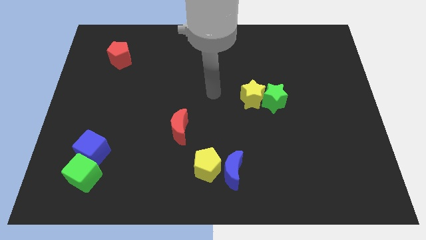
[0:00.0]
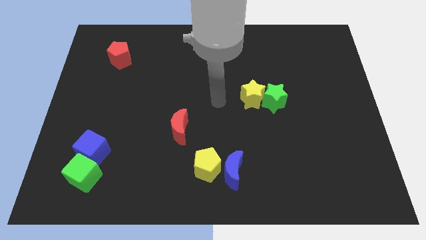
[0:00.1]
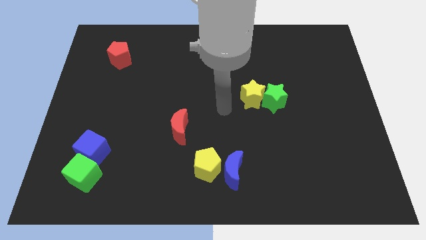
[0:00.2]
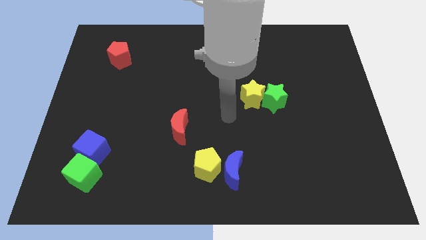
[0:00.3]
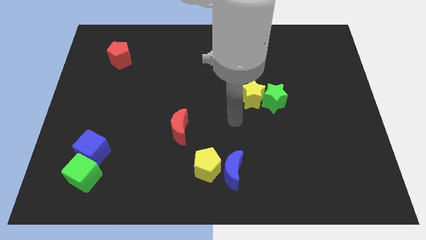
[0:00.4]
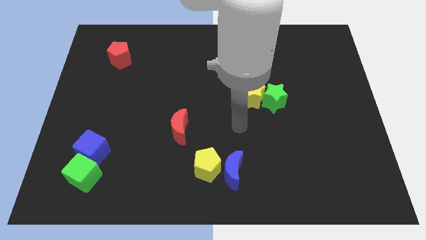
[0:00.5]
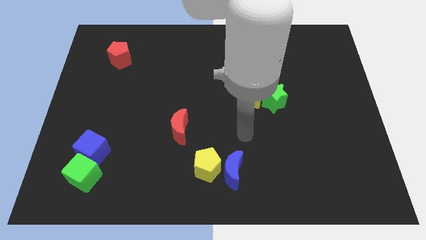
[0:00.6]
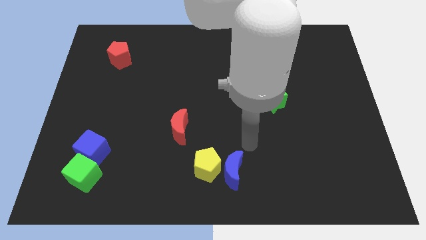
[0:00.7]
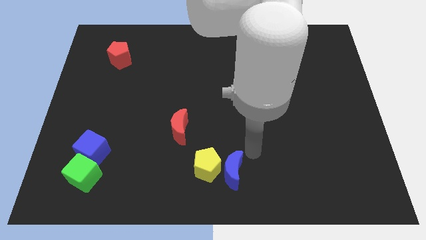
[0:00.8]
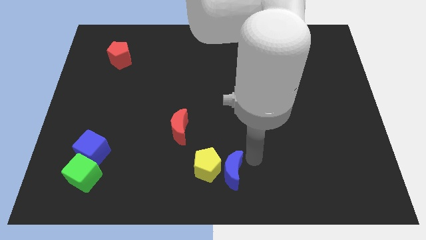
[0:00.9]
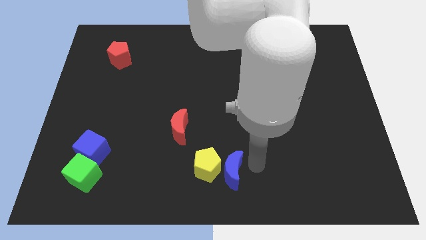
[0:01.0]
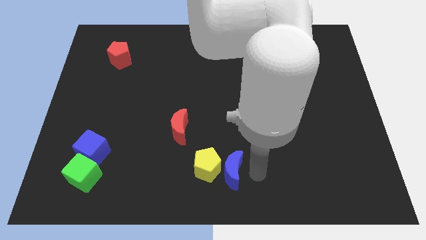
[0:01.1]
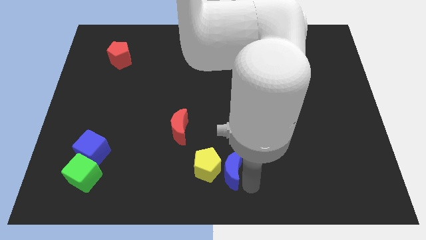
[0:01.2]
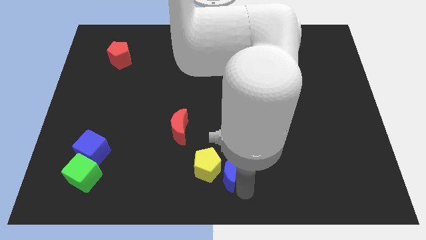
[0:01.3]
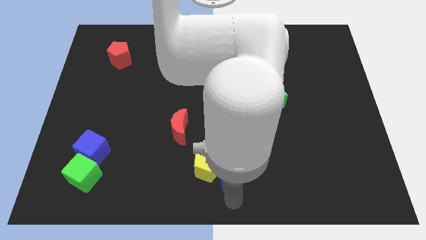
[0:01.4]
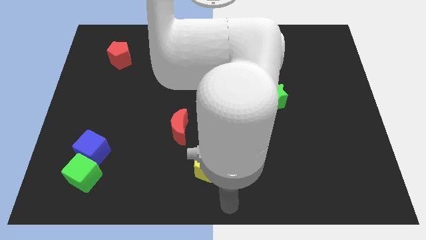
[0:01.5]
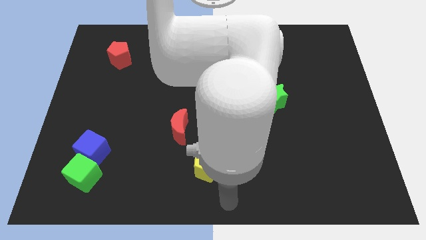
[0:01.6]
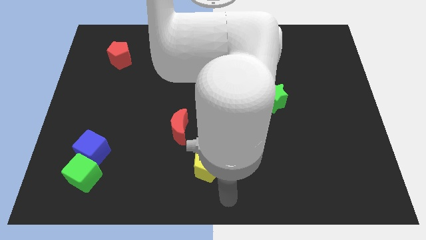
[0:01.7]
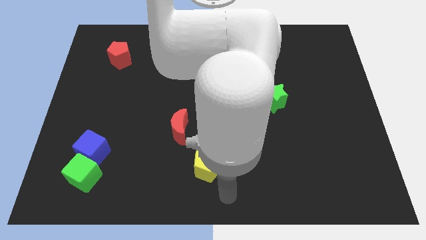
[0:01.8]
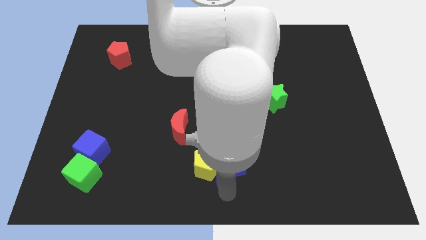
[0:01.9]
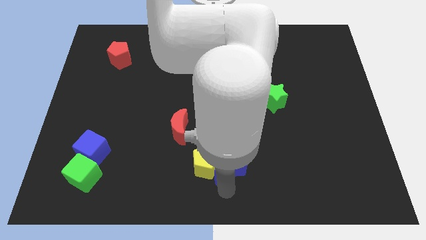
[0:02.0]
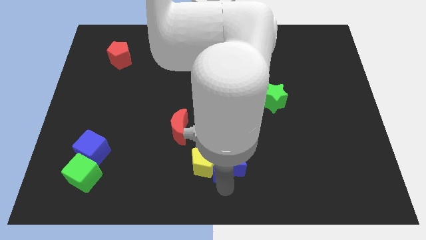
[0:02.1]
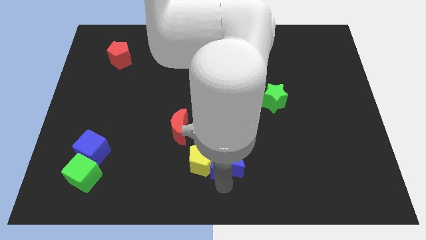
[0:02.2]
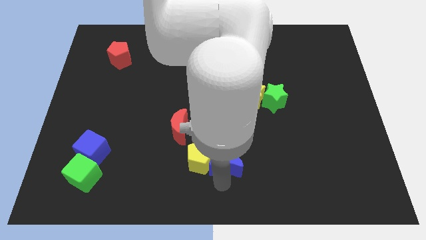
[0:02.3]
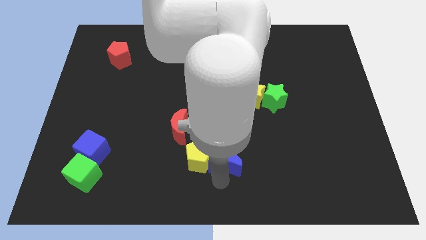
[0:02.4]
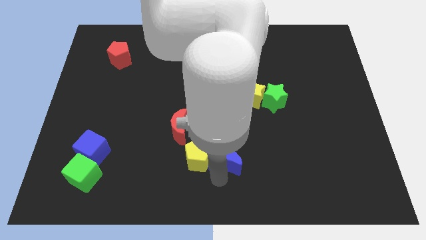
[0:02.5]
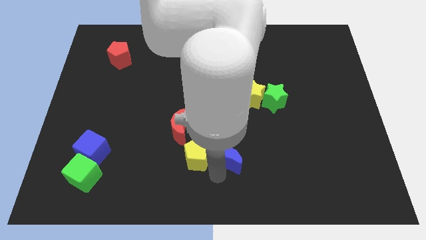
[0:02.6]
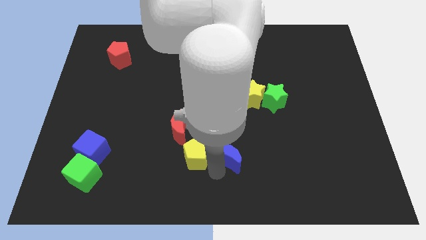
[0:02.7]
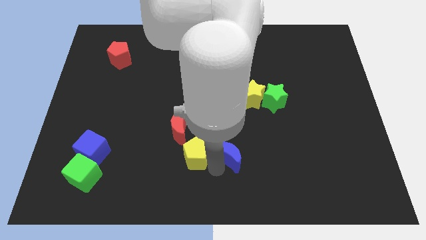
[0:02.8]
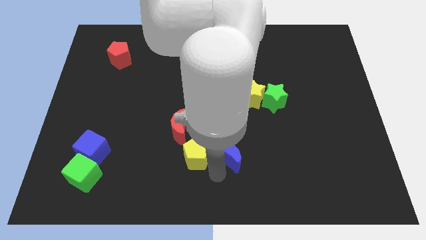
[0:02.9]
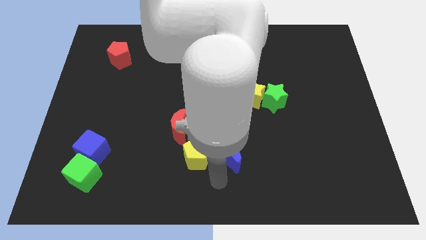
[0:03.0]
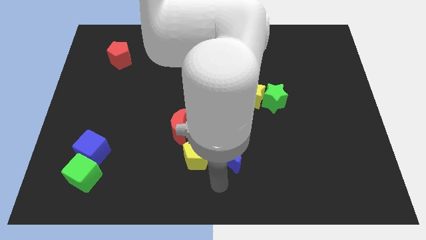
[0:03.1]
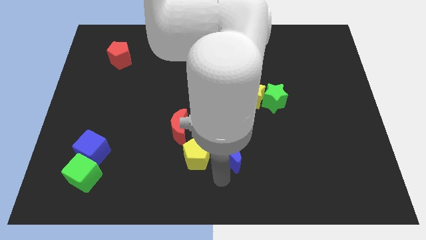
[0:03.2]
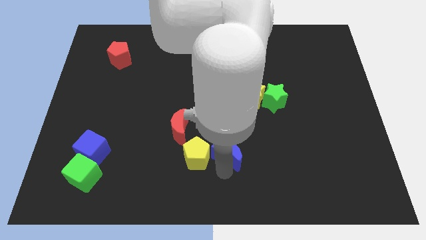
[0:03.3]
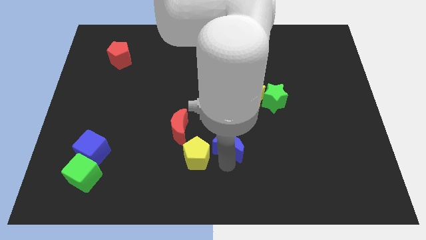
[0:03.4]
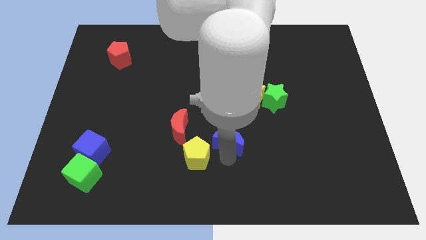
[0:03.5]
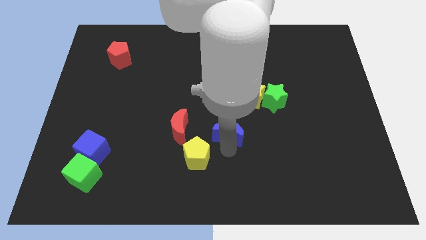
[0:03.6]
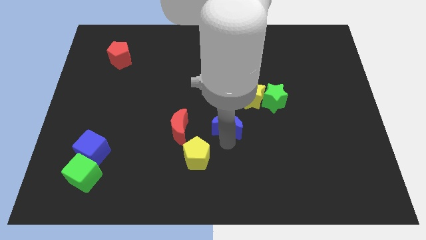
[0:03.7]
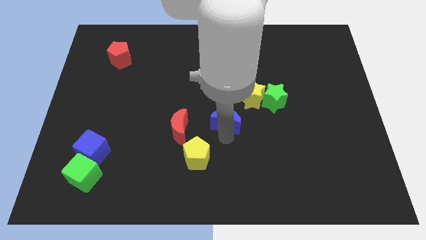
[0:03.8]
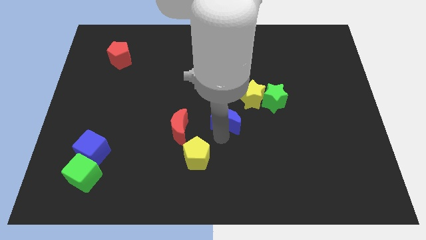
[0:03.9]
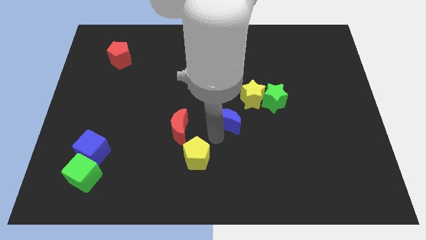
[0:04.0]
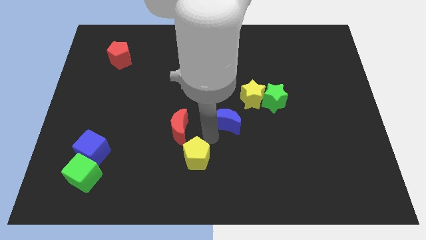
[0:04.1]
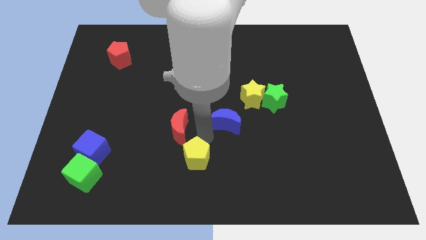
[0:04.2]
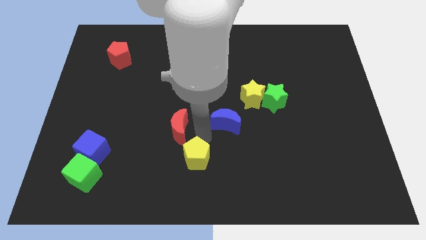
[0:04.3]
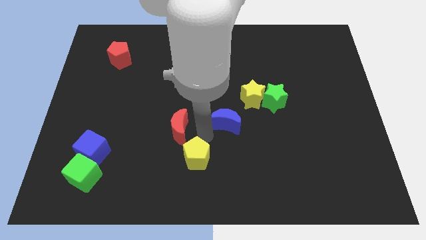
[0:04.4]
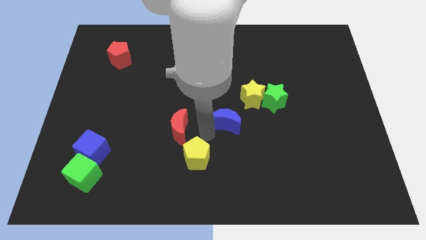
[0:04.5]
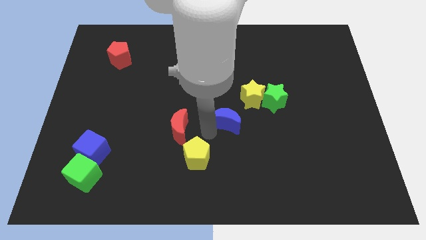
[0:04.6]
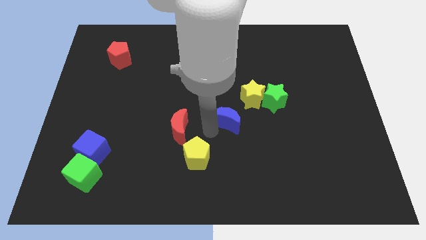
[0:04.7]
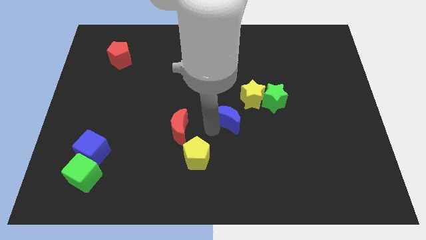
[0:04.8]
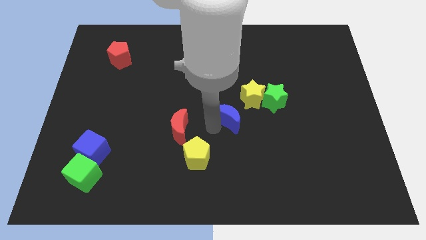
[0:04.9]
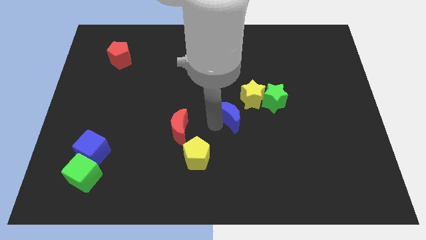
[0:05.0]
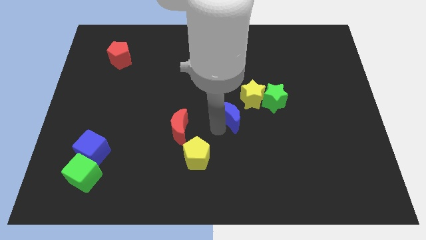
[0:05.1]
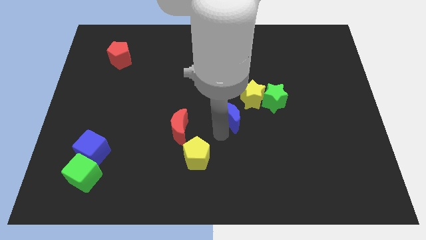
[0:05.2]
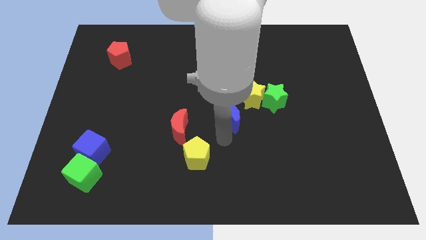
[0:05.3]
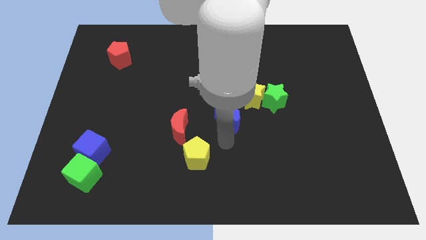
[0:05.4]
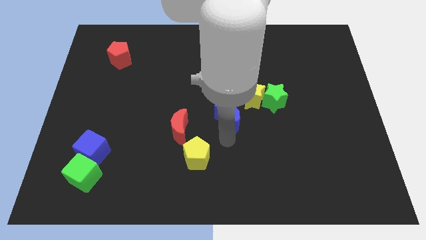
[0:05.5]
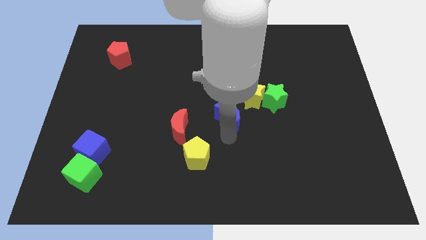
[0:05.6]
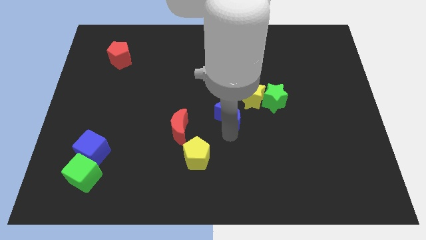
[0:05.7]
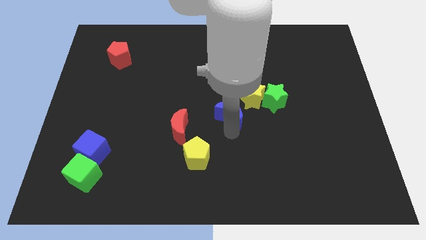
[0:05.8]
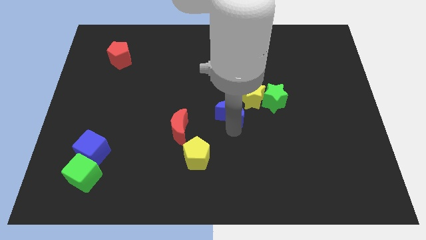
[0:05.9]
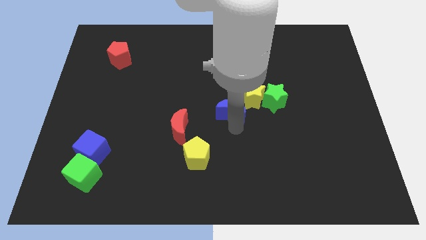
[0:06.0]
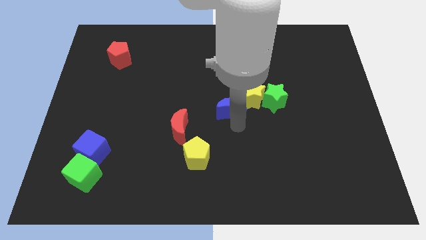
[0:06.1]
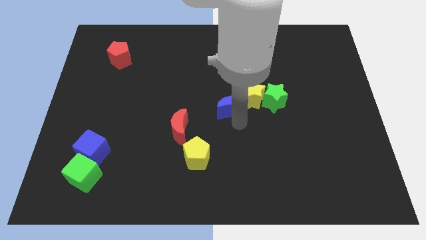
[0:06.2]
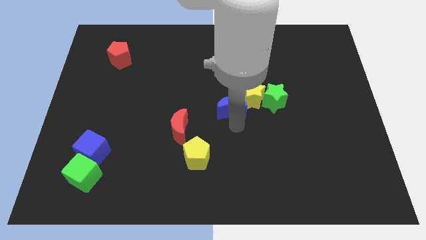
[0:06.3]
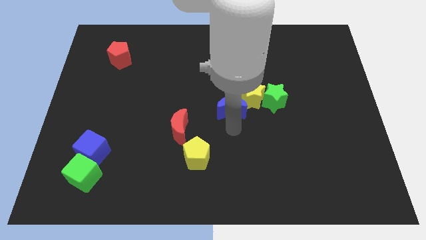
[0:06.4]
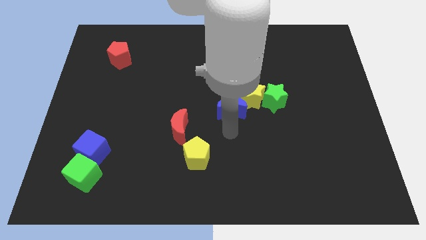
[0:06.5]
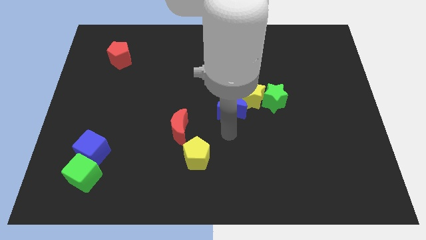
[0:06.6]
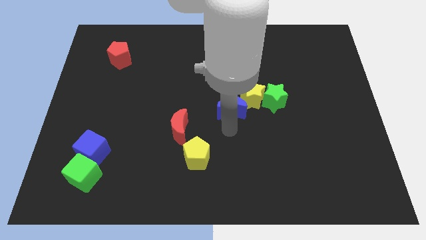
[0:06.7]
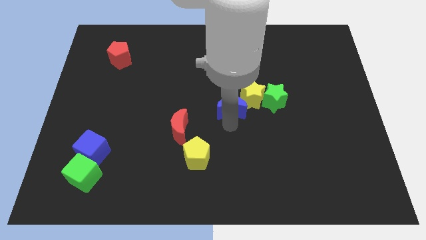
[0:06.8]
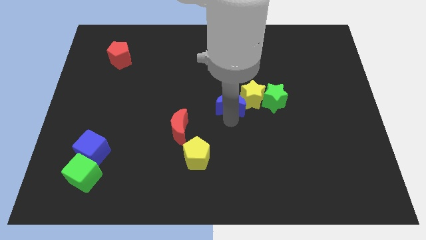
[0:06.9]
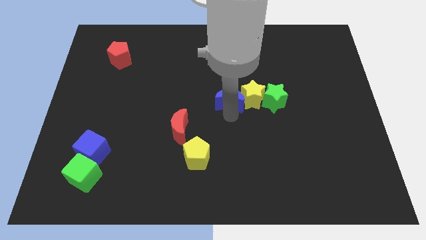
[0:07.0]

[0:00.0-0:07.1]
move the blue moon to the top left side of the yellow star

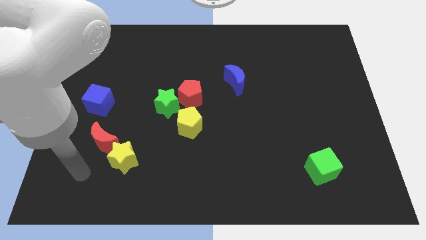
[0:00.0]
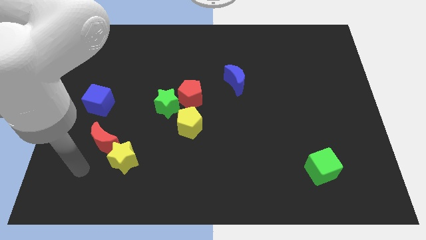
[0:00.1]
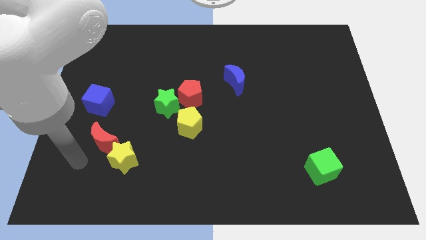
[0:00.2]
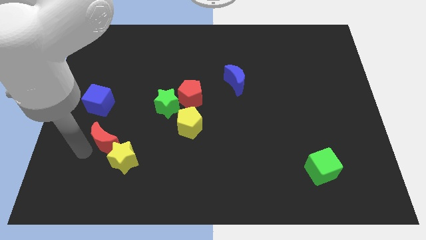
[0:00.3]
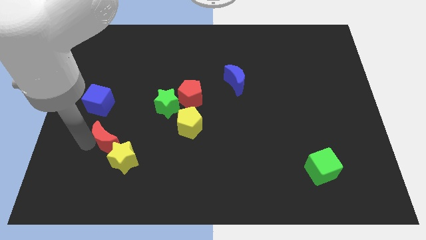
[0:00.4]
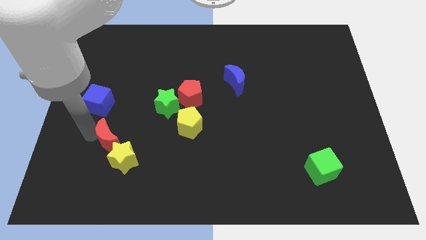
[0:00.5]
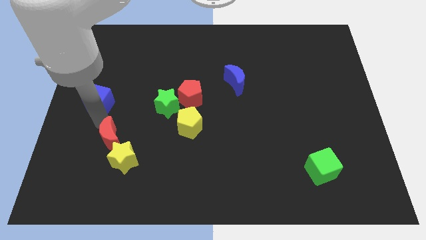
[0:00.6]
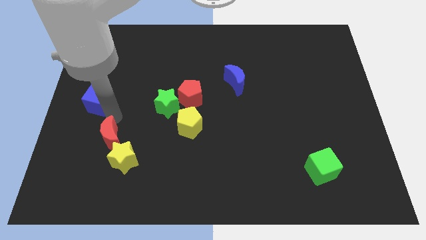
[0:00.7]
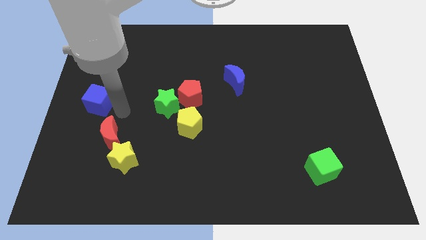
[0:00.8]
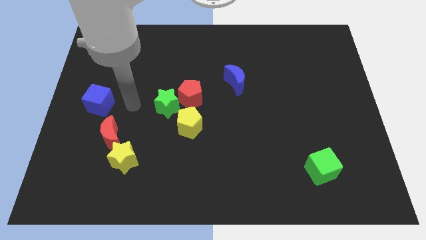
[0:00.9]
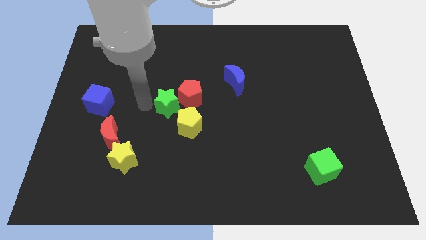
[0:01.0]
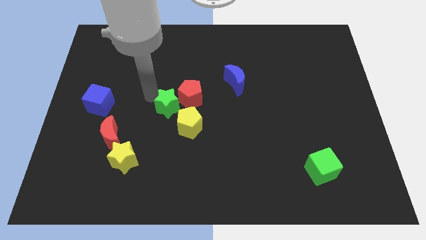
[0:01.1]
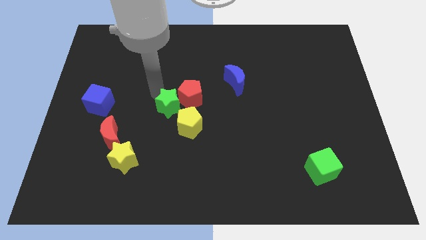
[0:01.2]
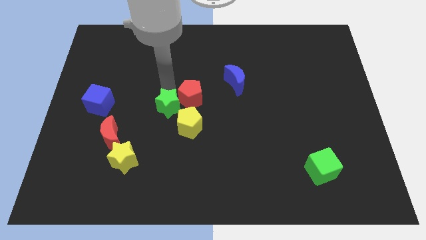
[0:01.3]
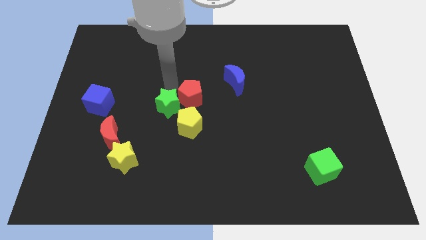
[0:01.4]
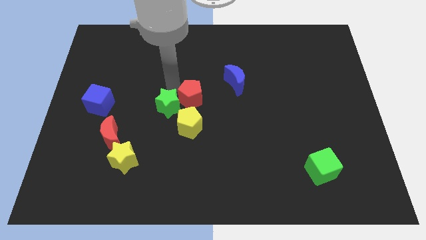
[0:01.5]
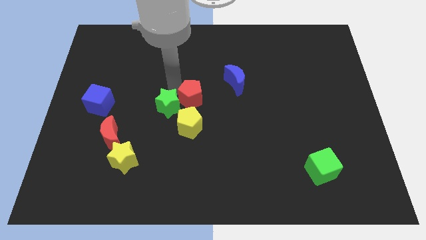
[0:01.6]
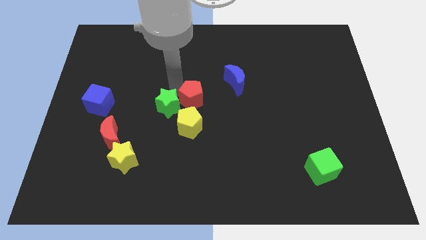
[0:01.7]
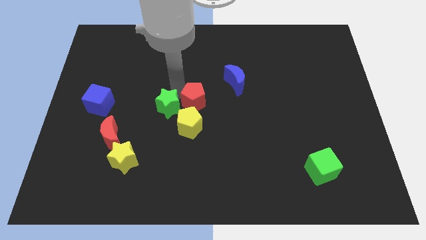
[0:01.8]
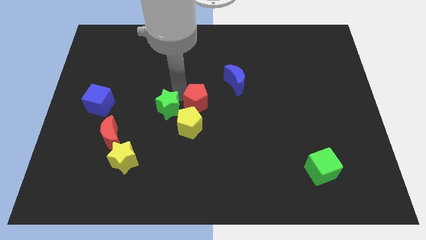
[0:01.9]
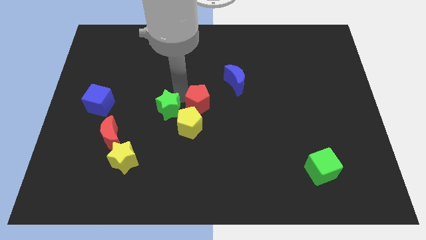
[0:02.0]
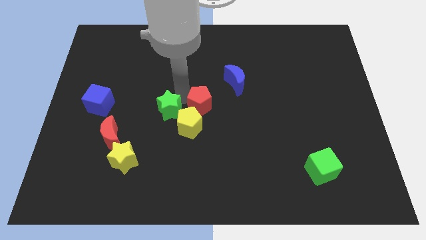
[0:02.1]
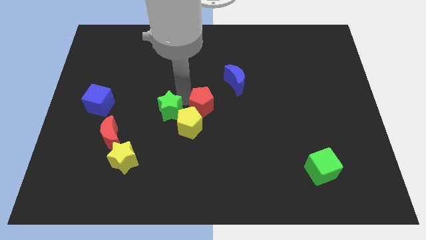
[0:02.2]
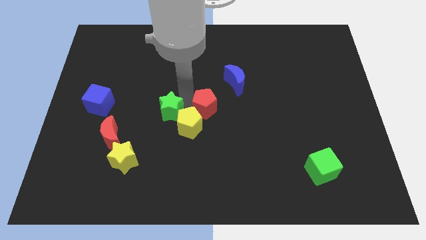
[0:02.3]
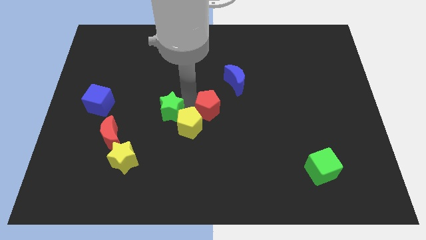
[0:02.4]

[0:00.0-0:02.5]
move the red pentagon right of the yellow pentagon
